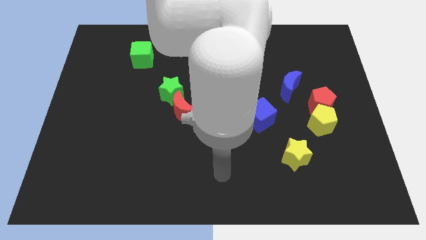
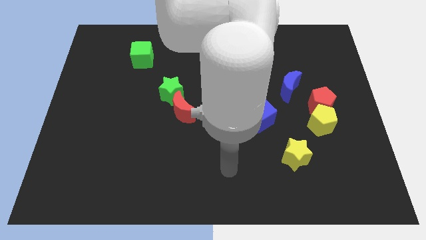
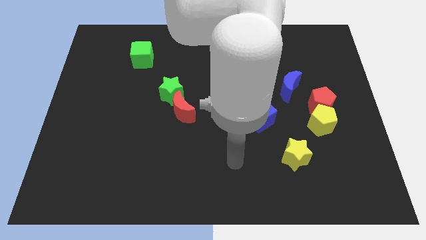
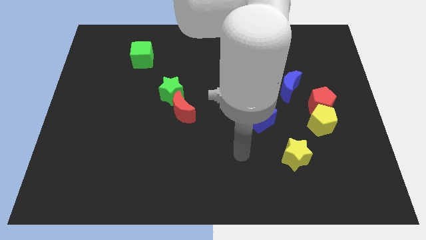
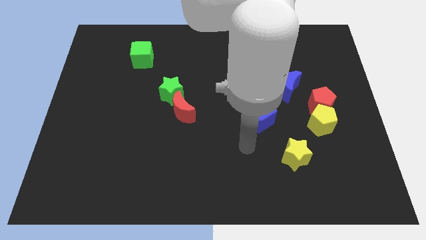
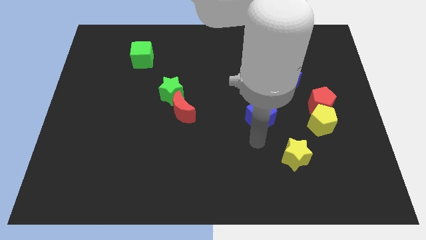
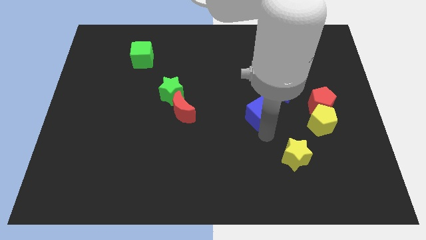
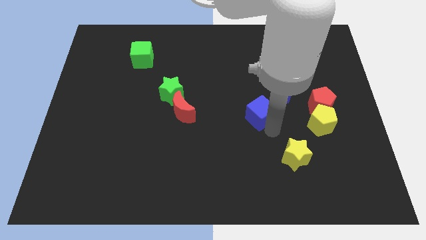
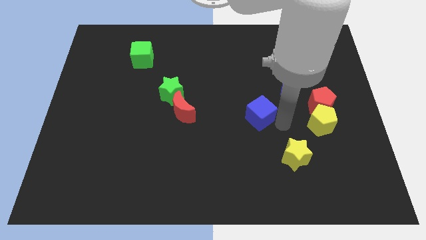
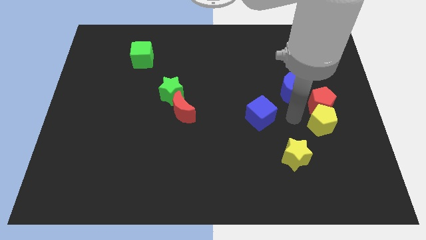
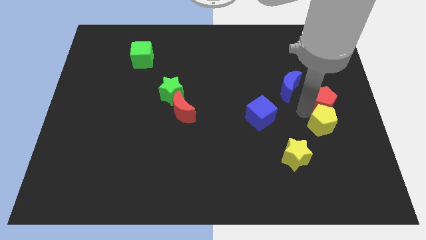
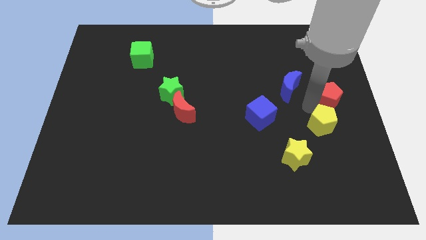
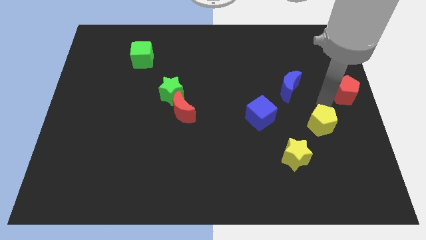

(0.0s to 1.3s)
move the yellow pentagon away from the red pentagon

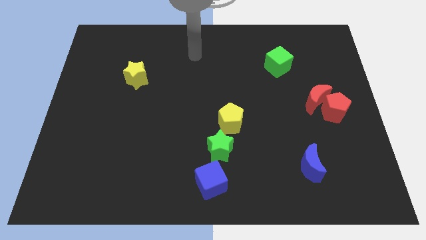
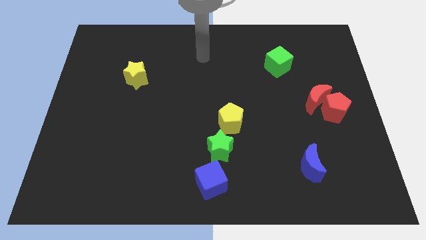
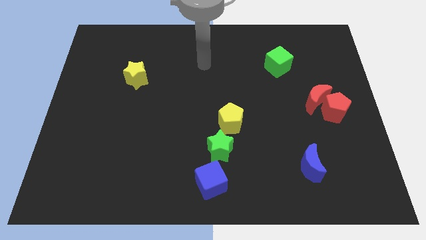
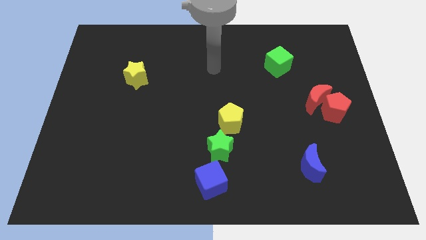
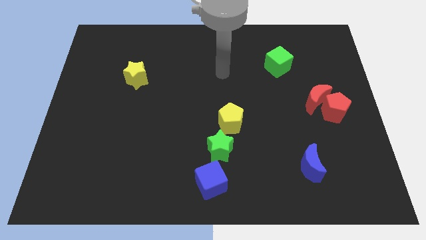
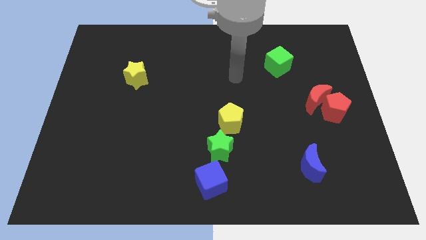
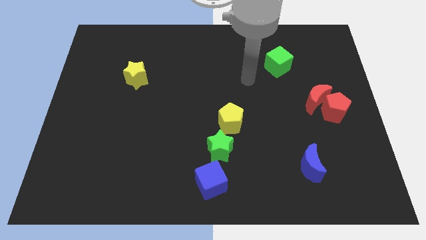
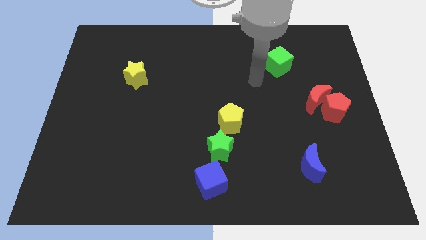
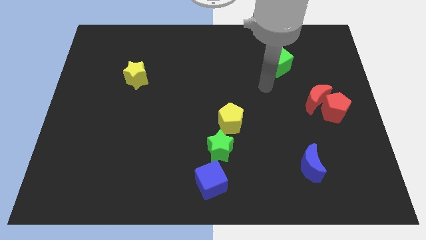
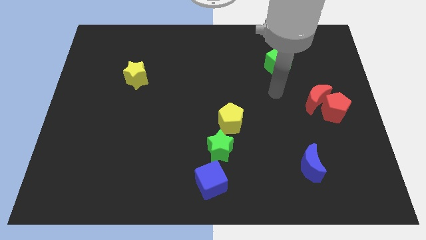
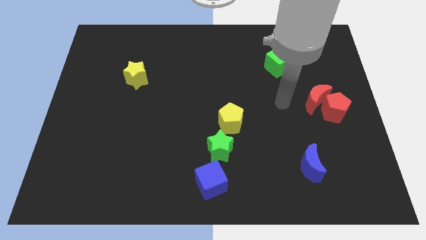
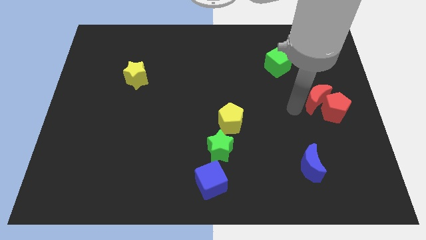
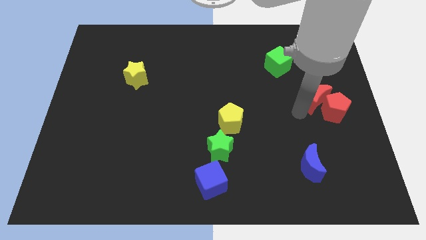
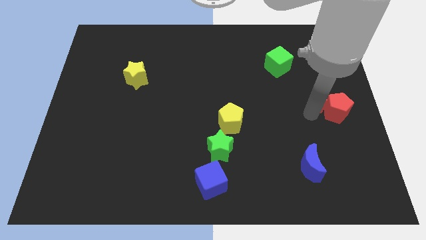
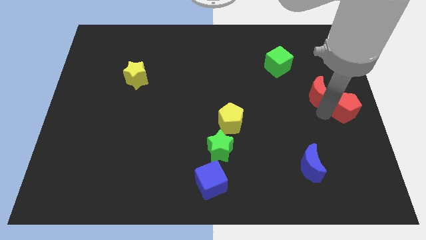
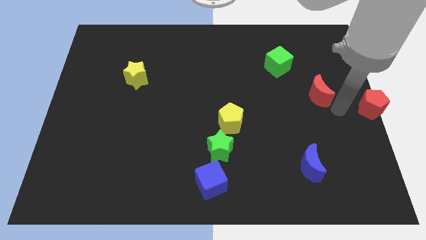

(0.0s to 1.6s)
separate the red moon from the red pentagon

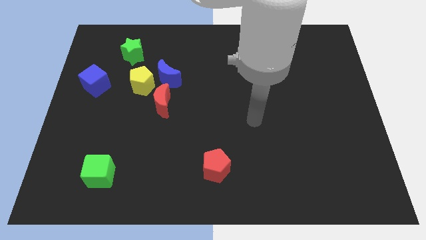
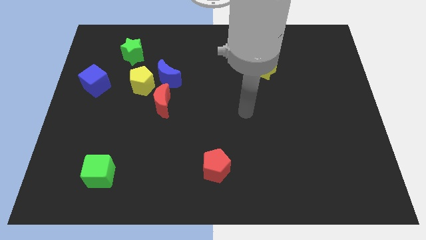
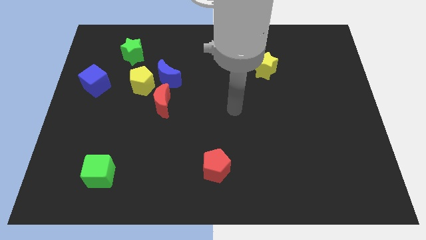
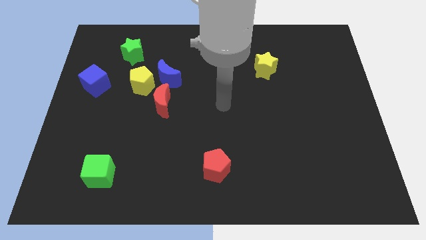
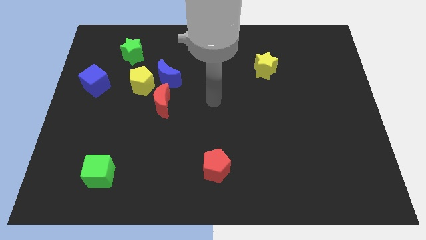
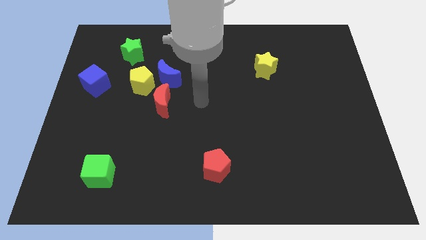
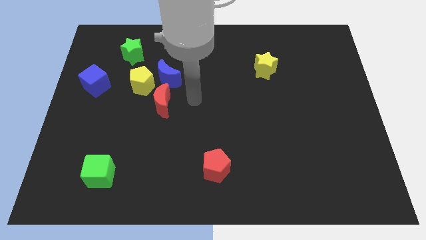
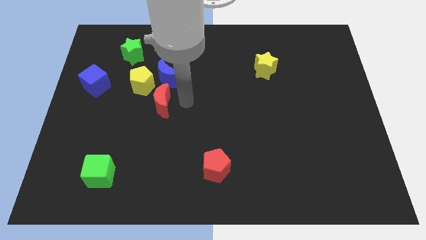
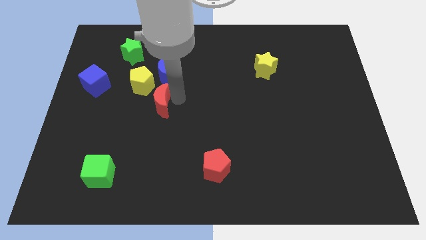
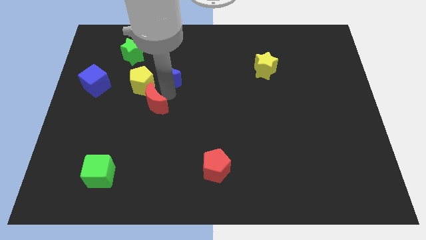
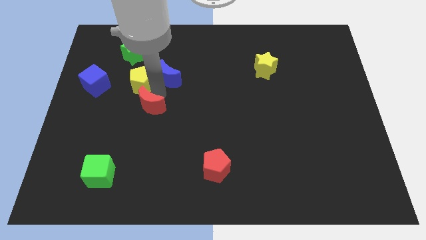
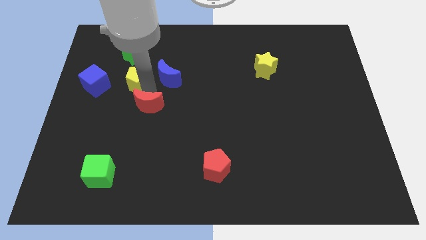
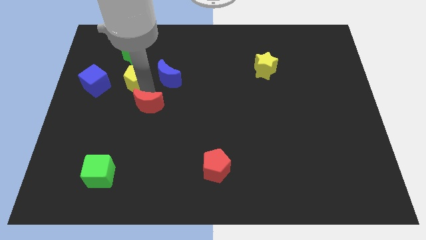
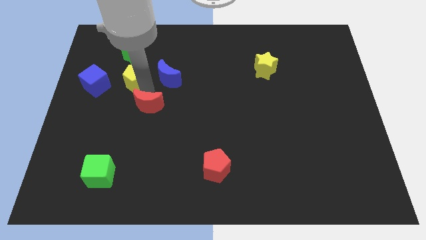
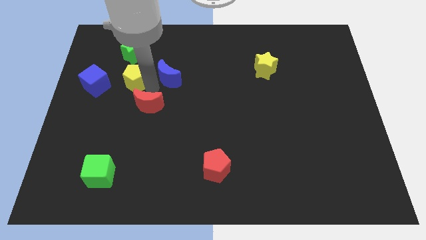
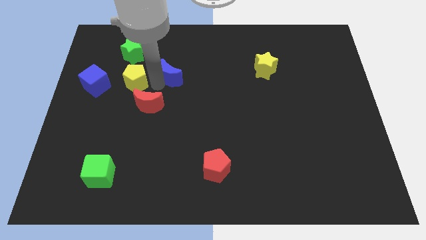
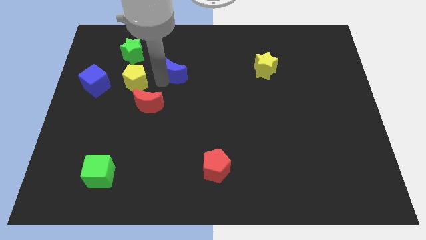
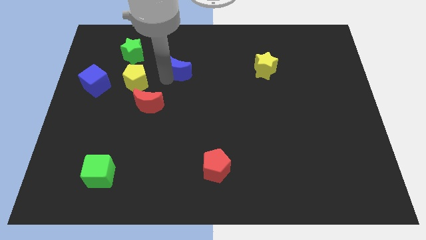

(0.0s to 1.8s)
move the blue moon away from the yellow pentagon and red moon

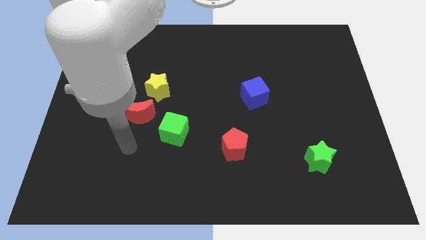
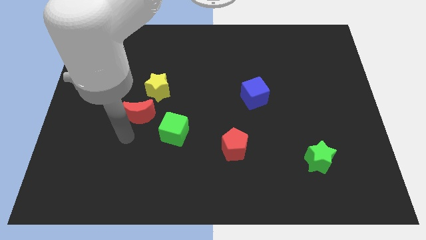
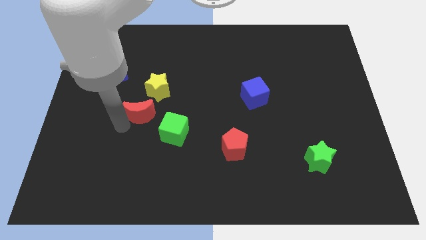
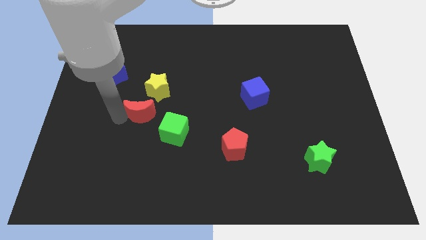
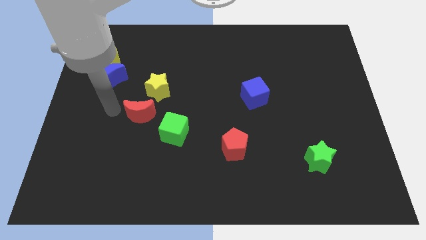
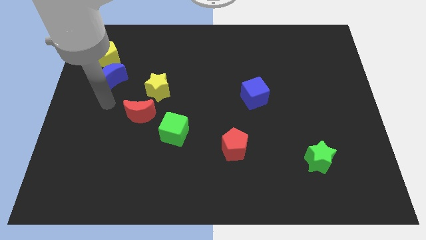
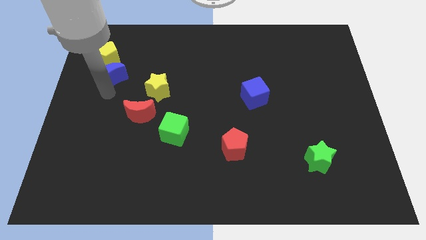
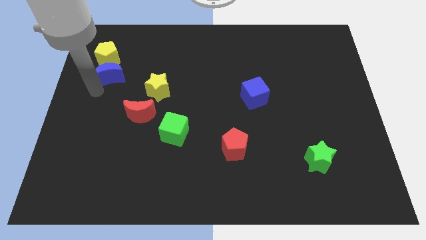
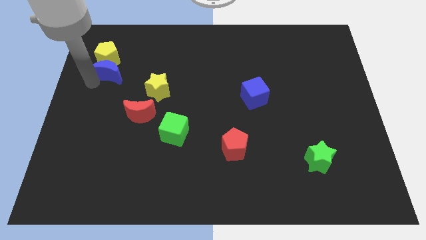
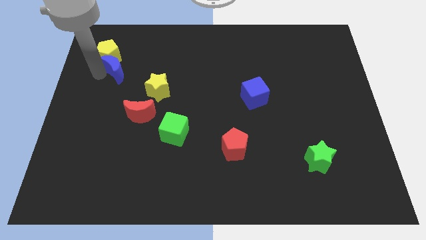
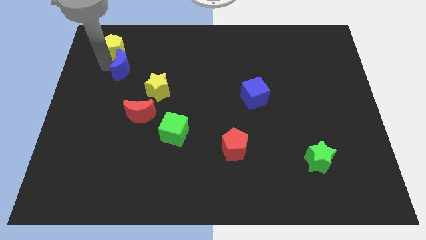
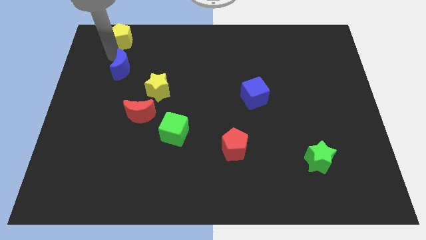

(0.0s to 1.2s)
pull the blue moon apart from the yellow pentagon

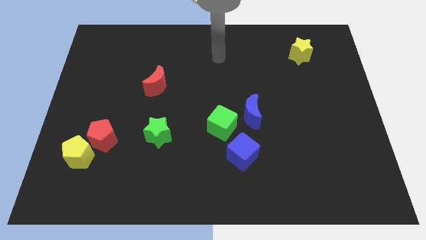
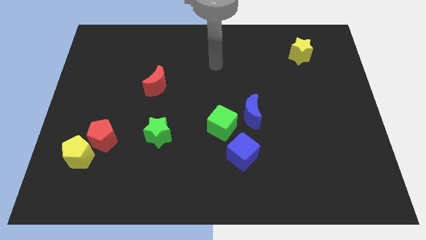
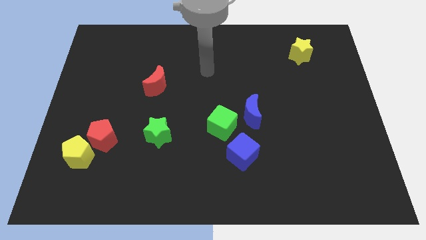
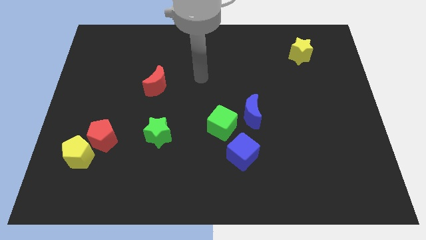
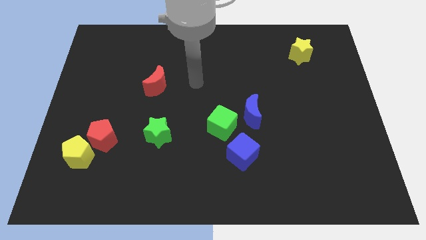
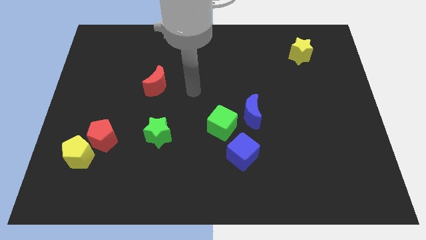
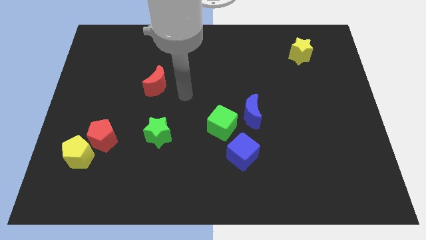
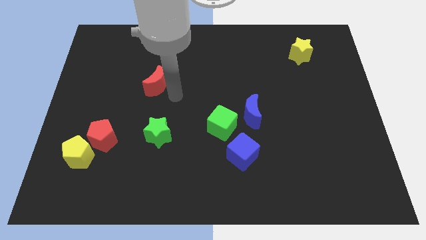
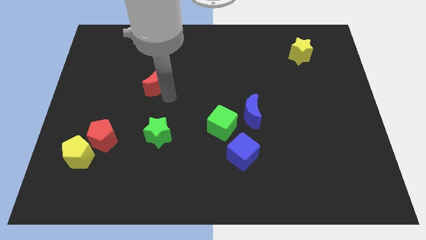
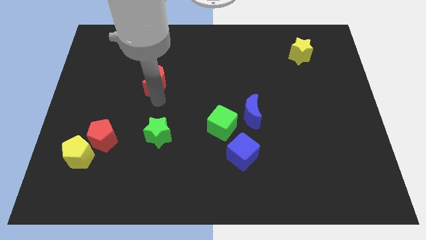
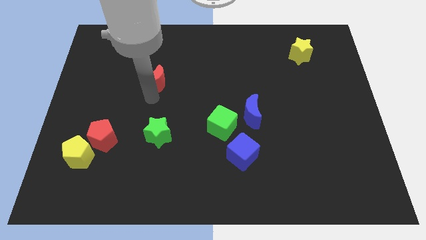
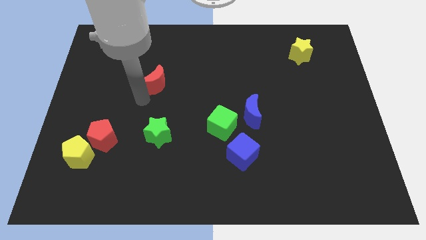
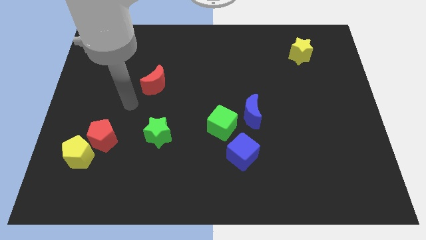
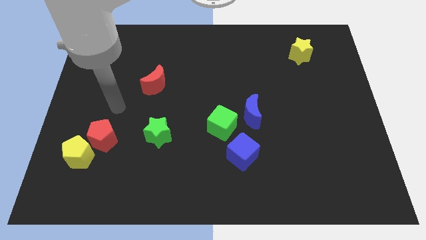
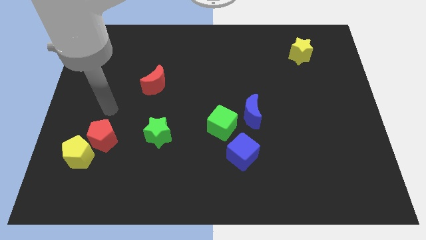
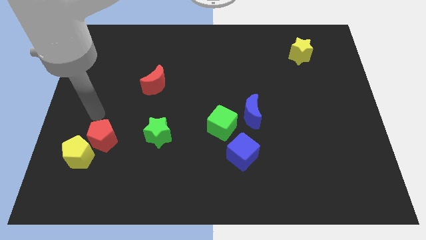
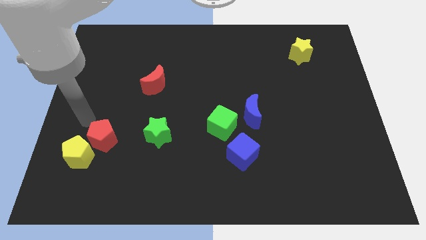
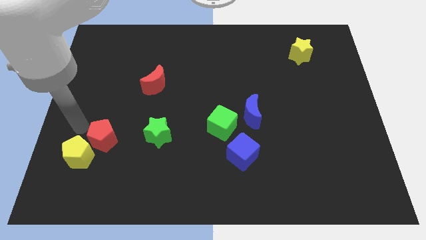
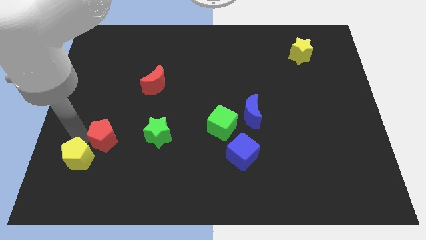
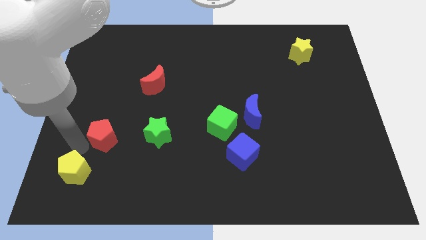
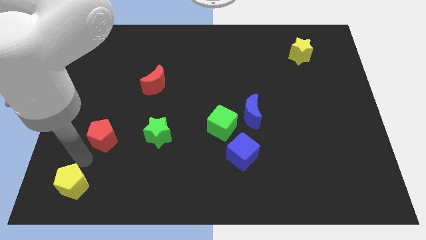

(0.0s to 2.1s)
pull the red pentagon apart from the yellow pentagon

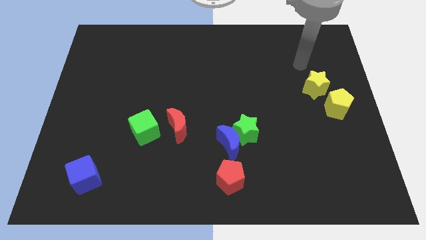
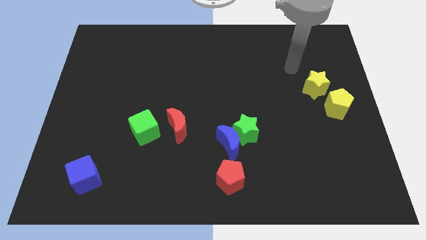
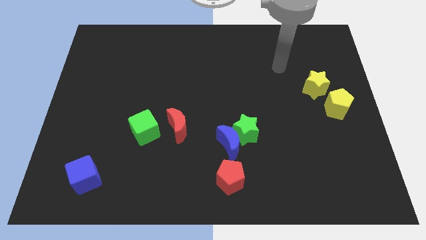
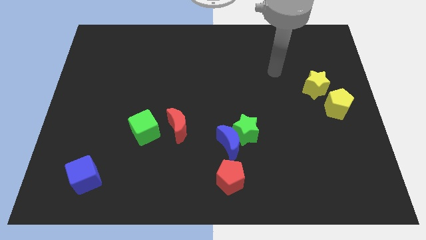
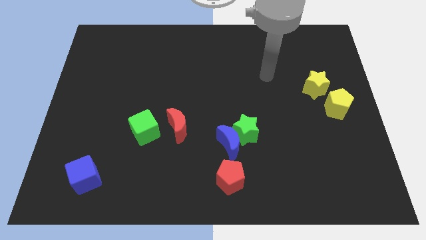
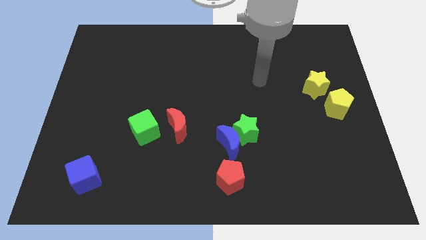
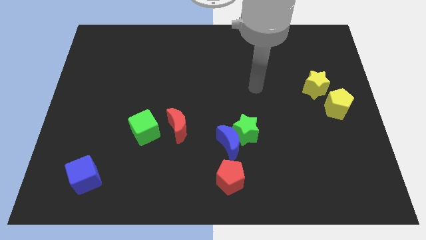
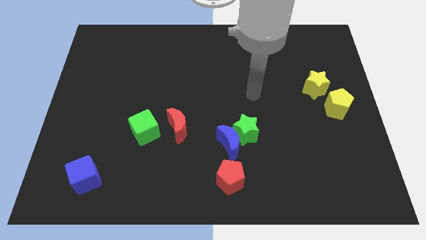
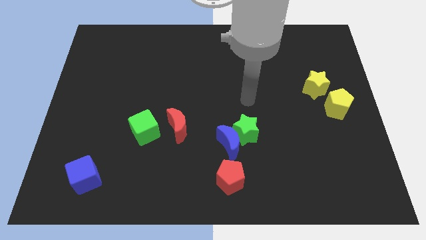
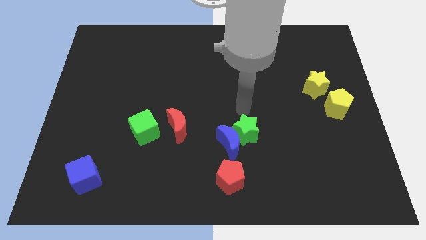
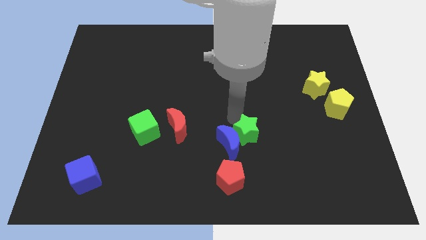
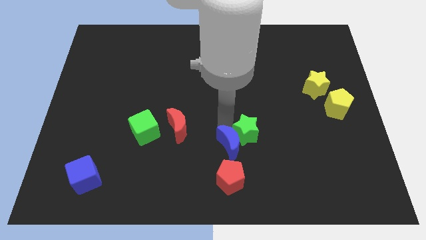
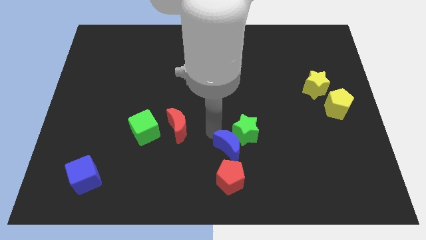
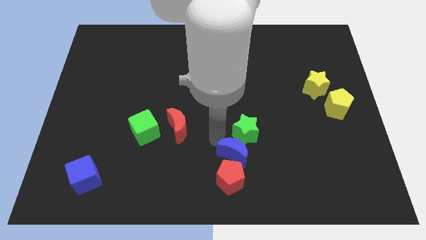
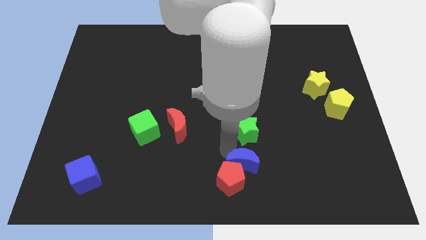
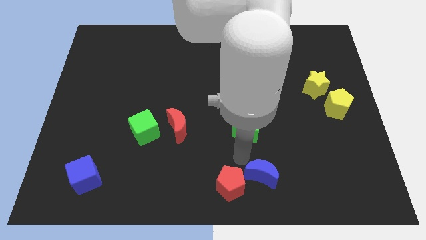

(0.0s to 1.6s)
move the green star away from the blue moon
